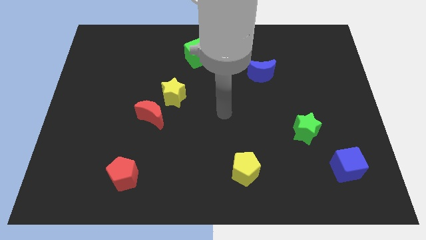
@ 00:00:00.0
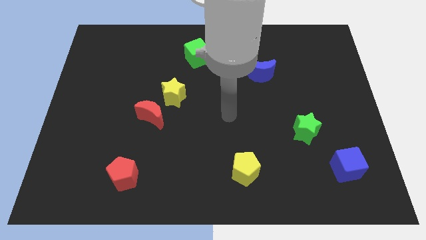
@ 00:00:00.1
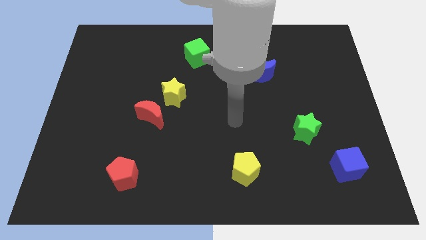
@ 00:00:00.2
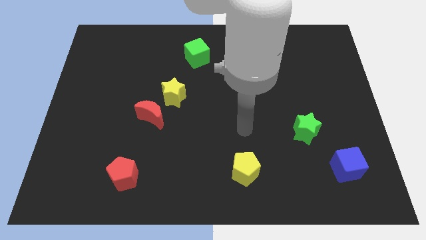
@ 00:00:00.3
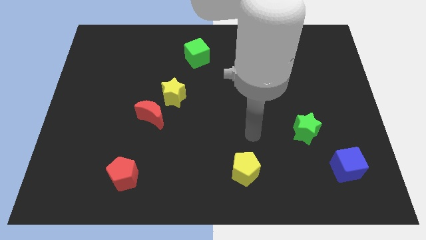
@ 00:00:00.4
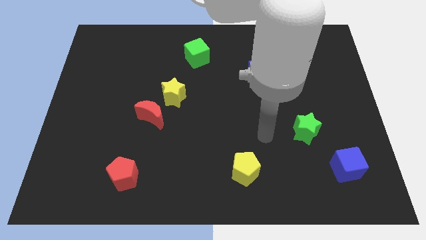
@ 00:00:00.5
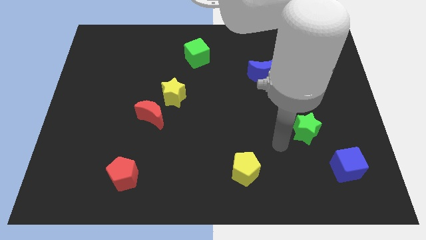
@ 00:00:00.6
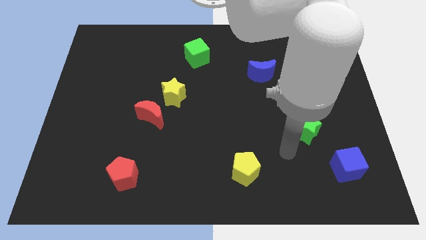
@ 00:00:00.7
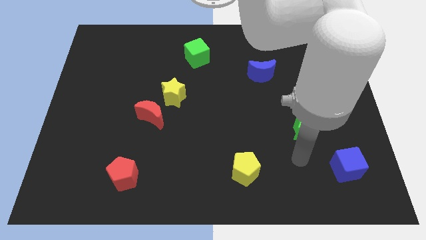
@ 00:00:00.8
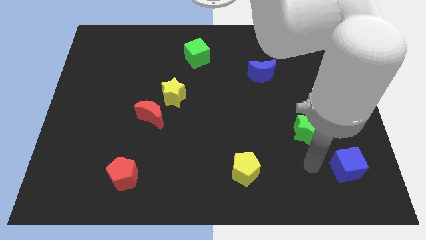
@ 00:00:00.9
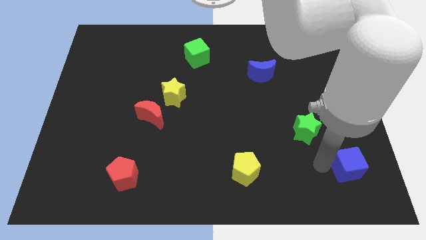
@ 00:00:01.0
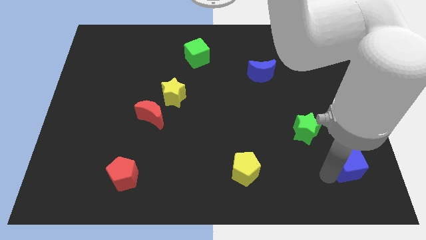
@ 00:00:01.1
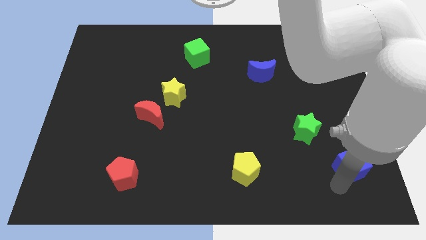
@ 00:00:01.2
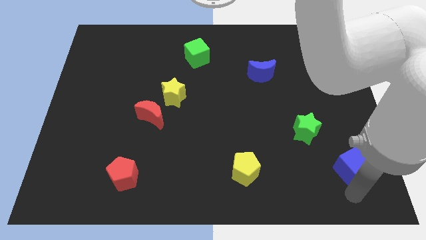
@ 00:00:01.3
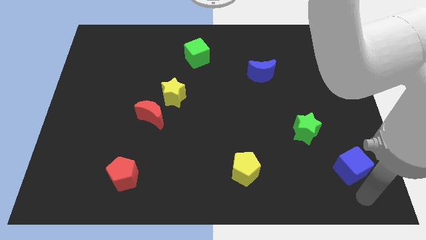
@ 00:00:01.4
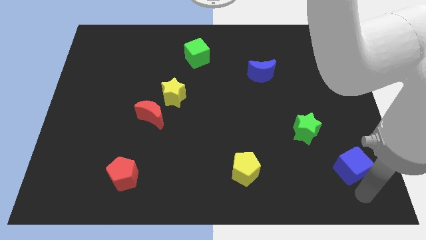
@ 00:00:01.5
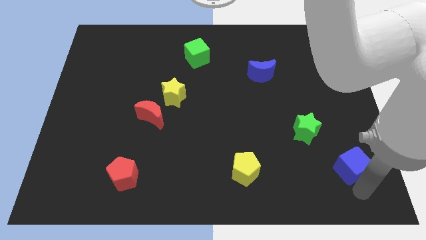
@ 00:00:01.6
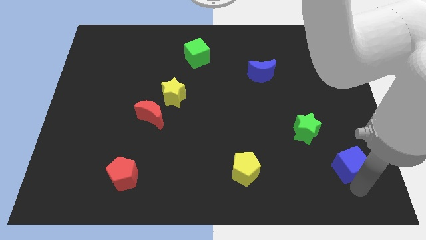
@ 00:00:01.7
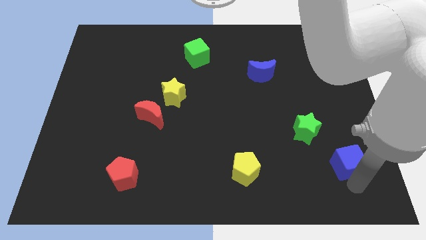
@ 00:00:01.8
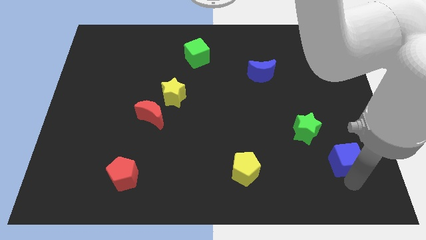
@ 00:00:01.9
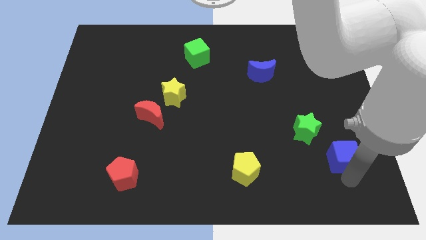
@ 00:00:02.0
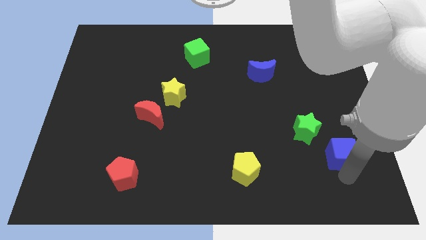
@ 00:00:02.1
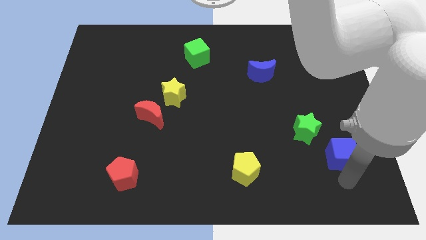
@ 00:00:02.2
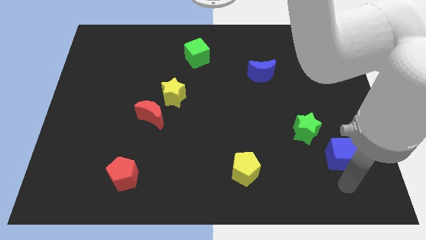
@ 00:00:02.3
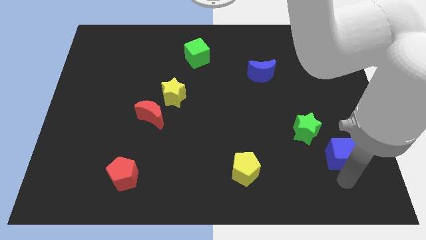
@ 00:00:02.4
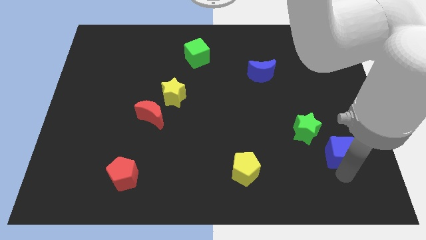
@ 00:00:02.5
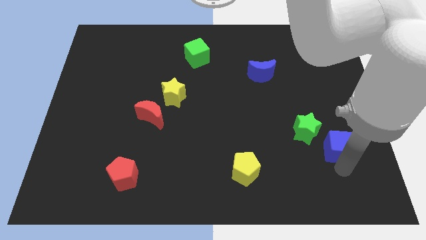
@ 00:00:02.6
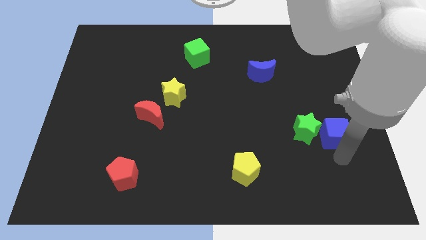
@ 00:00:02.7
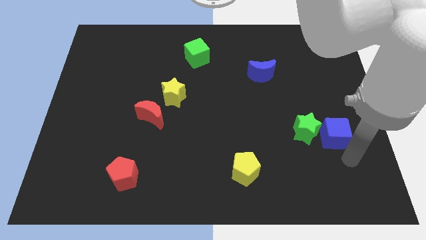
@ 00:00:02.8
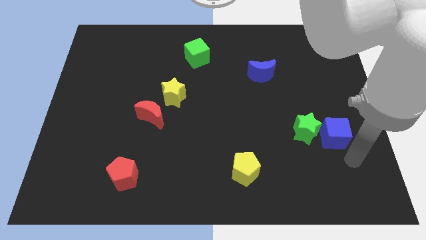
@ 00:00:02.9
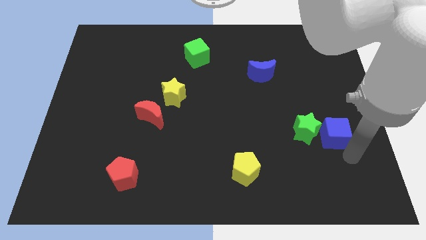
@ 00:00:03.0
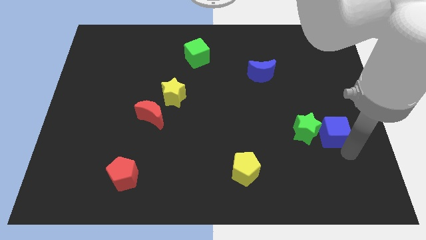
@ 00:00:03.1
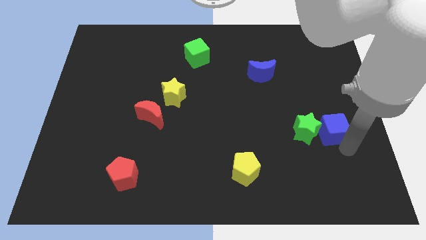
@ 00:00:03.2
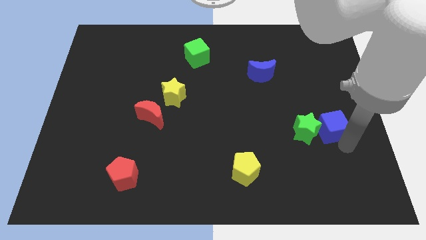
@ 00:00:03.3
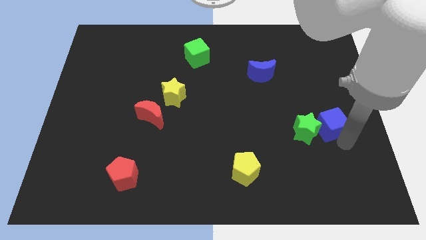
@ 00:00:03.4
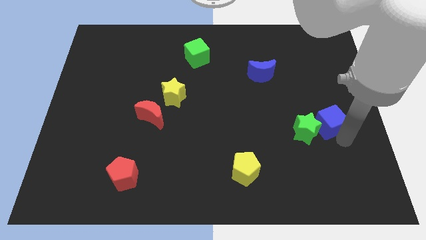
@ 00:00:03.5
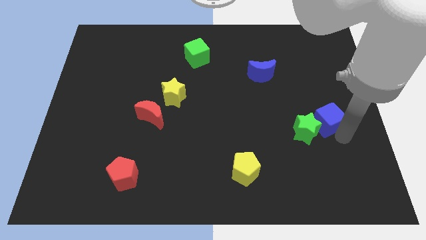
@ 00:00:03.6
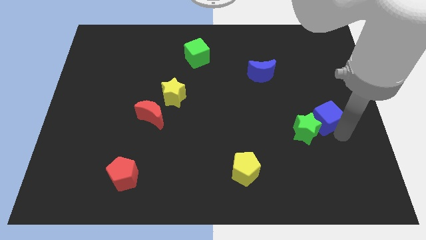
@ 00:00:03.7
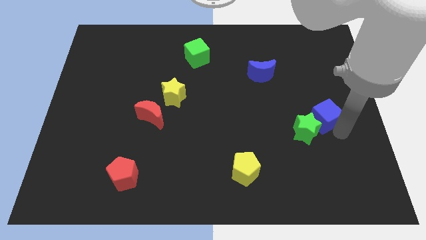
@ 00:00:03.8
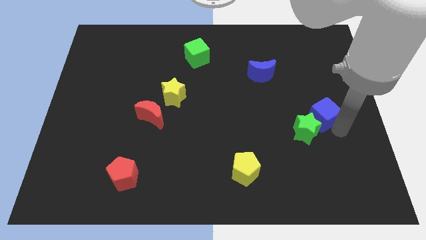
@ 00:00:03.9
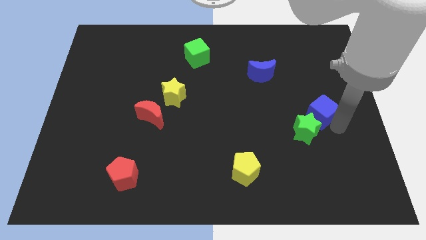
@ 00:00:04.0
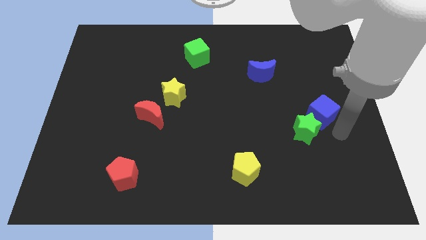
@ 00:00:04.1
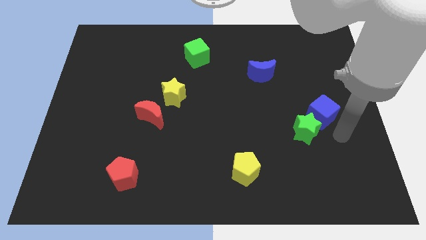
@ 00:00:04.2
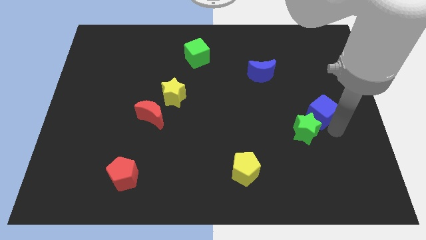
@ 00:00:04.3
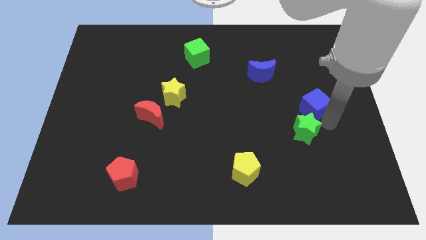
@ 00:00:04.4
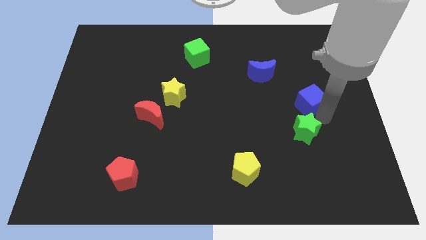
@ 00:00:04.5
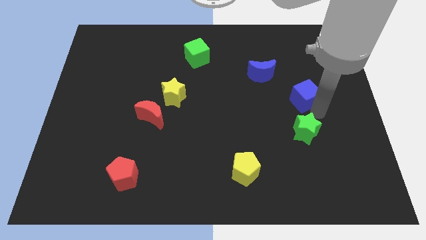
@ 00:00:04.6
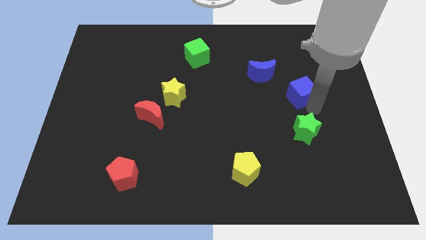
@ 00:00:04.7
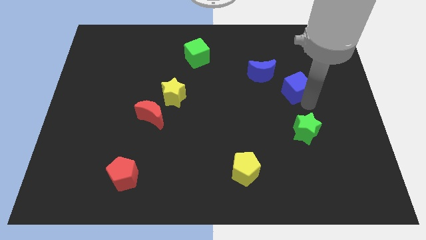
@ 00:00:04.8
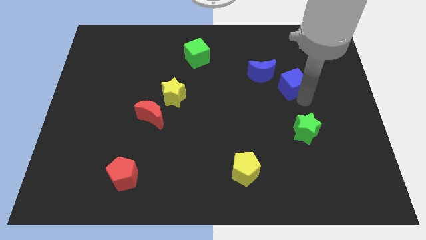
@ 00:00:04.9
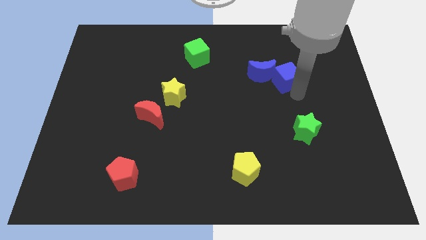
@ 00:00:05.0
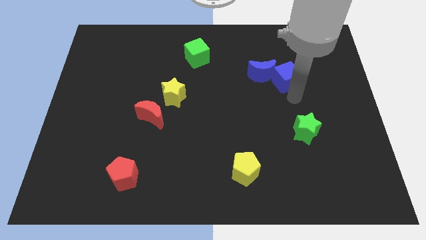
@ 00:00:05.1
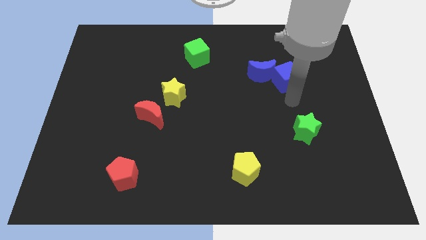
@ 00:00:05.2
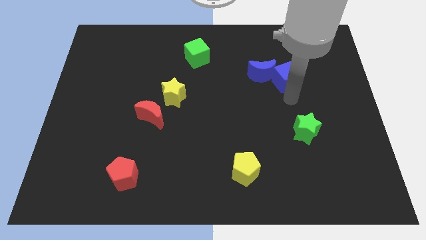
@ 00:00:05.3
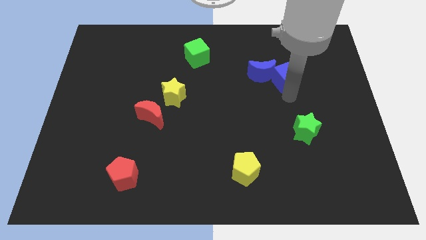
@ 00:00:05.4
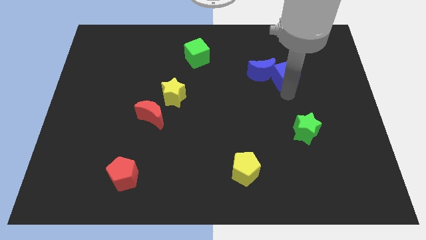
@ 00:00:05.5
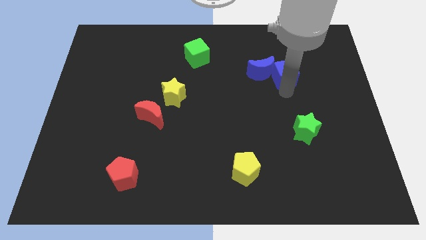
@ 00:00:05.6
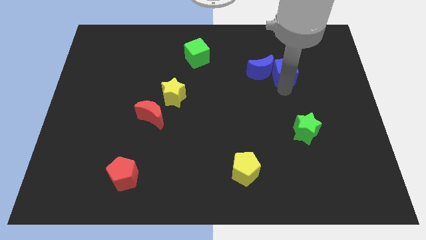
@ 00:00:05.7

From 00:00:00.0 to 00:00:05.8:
move the blue cube to the top right of the blue moon

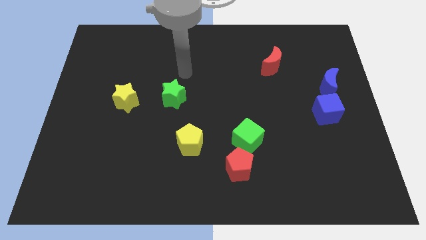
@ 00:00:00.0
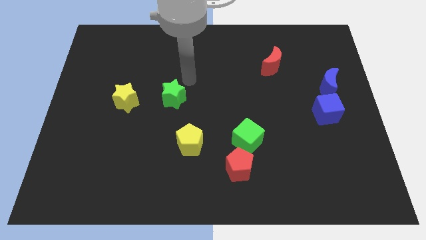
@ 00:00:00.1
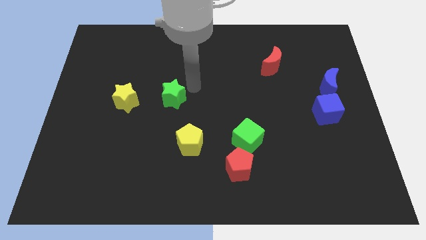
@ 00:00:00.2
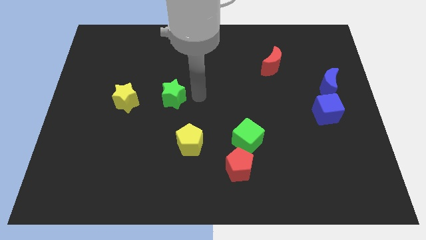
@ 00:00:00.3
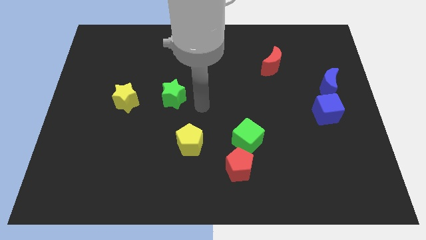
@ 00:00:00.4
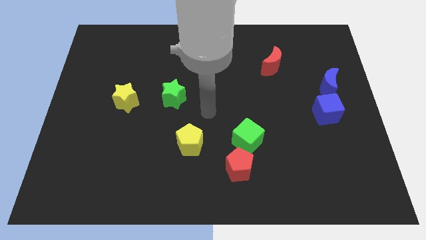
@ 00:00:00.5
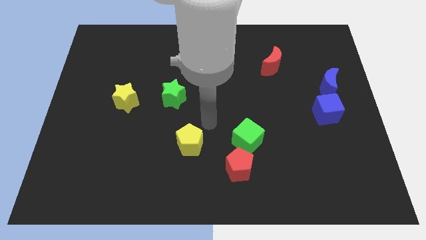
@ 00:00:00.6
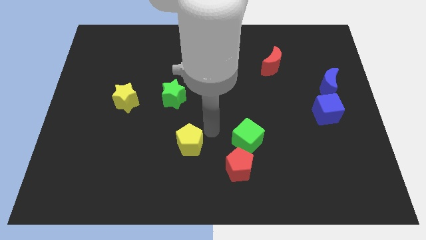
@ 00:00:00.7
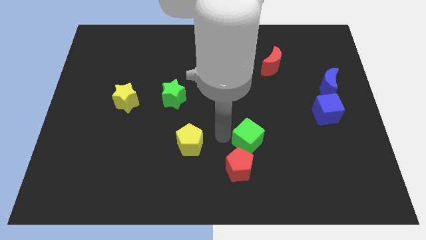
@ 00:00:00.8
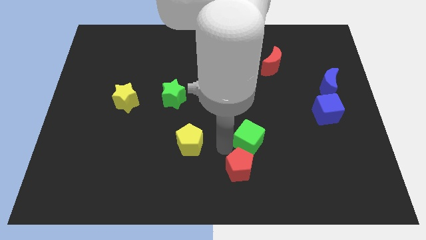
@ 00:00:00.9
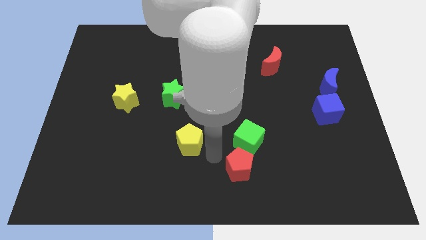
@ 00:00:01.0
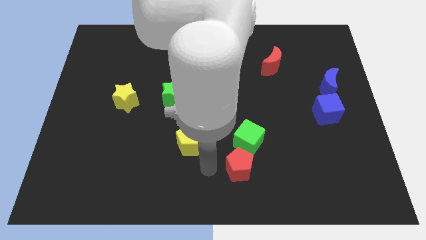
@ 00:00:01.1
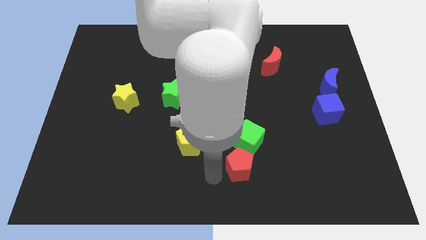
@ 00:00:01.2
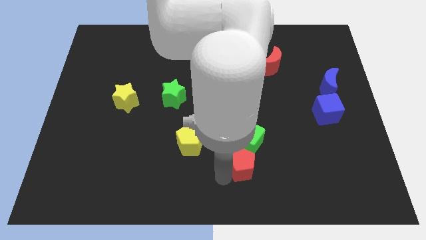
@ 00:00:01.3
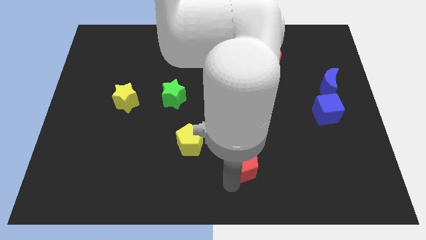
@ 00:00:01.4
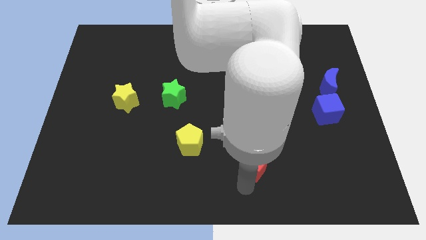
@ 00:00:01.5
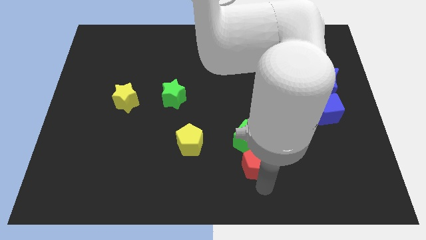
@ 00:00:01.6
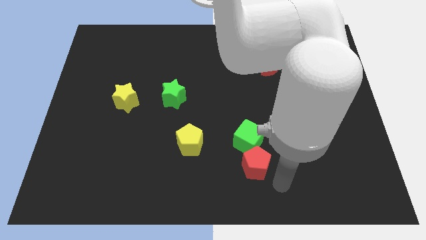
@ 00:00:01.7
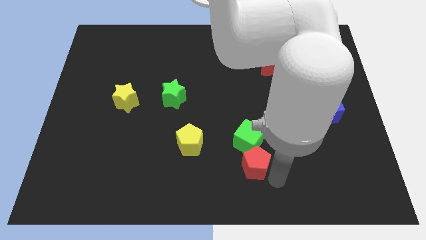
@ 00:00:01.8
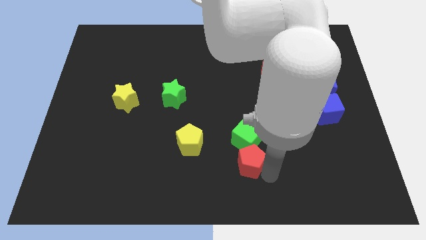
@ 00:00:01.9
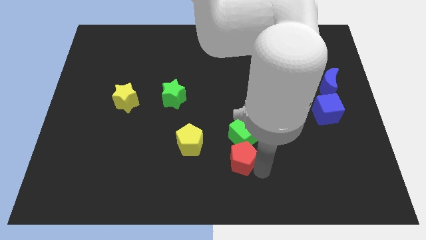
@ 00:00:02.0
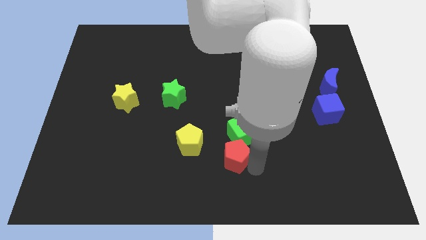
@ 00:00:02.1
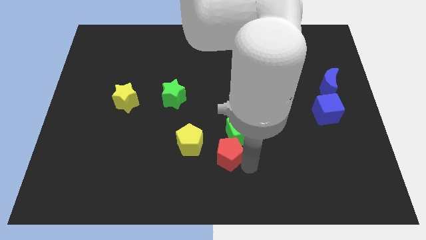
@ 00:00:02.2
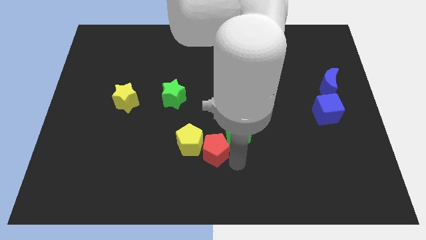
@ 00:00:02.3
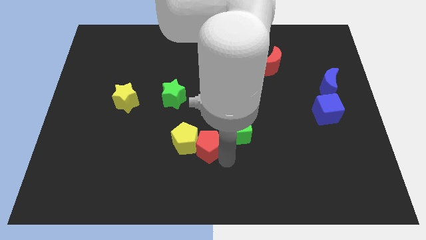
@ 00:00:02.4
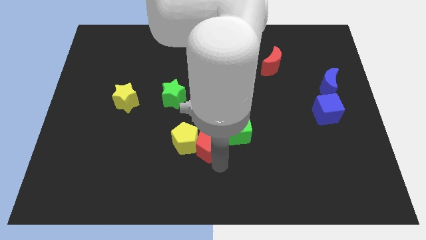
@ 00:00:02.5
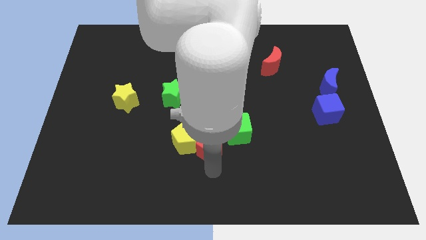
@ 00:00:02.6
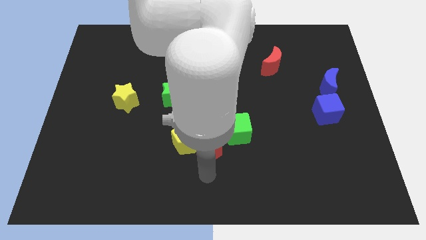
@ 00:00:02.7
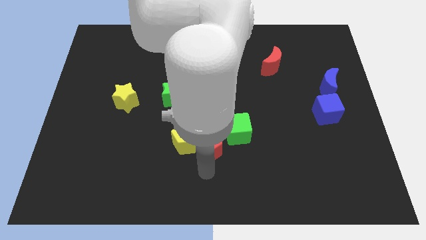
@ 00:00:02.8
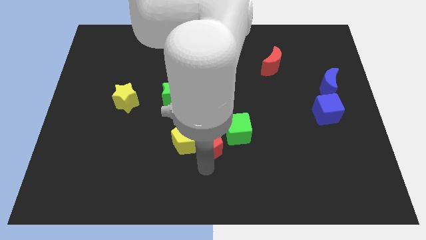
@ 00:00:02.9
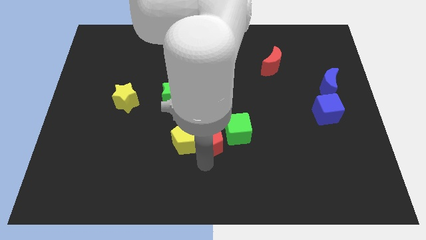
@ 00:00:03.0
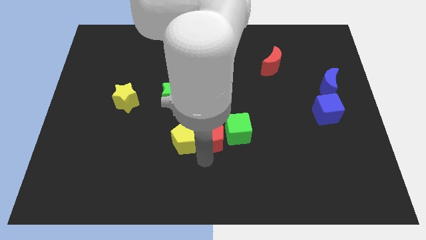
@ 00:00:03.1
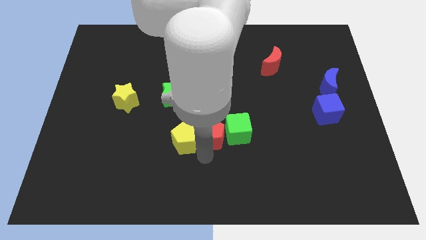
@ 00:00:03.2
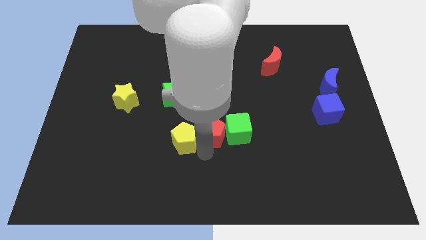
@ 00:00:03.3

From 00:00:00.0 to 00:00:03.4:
slide the red pentagon diagonally up and to the left of the green cube
